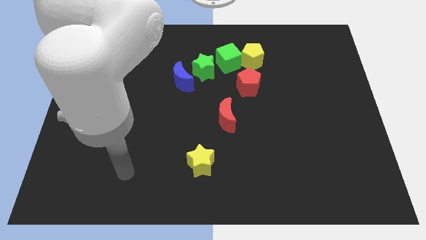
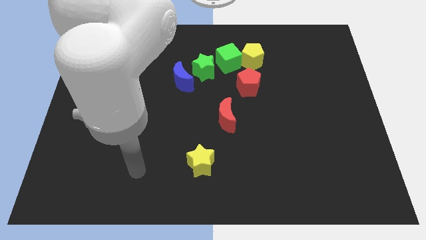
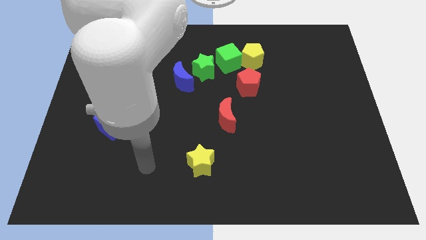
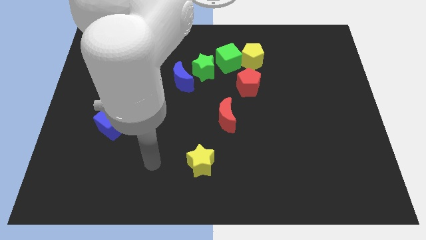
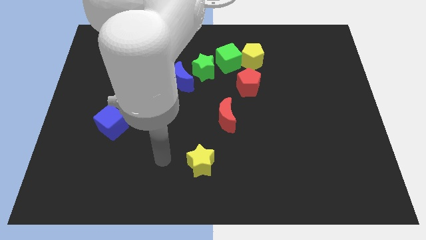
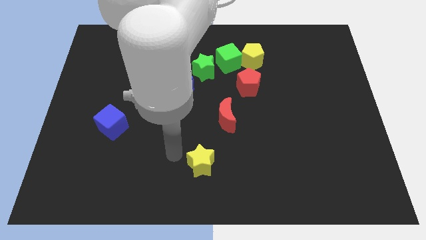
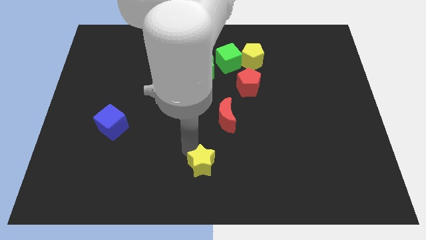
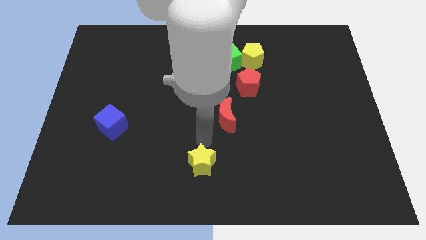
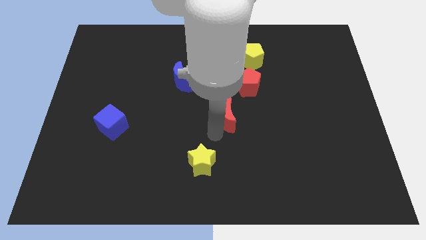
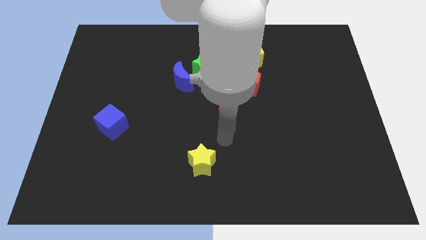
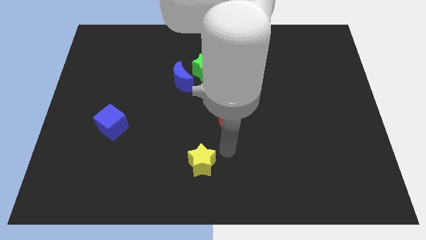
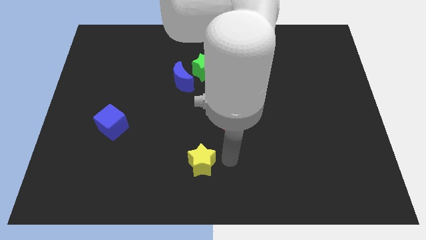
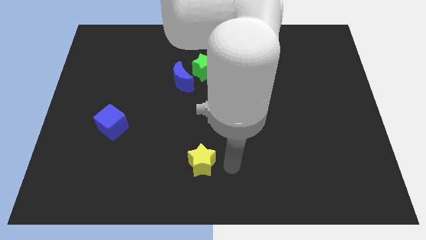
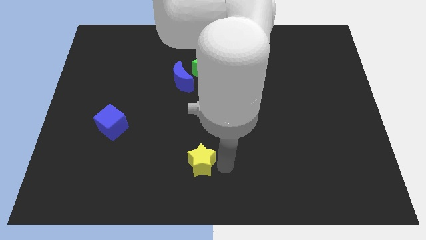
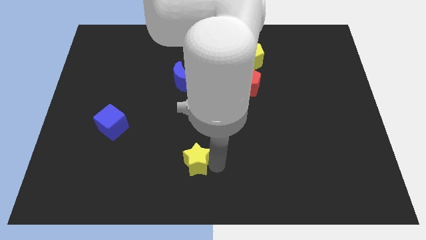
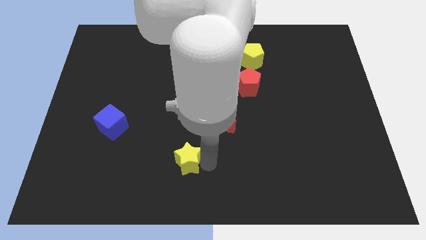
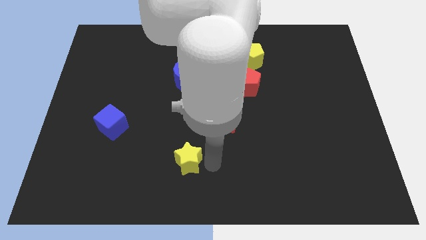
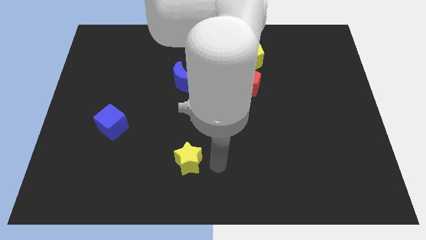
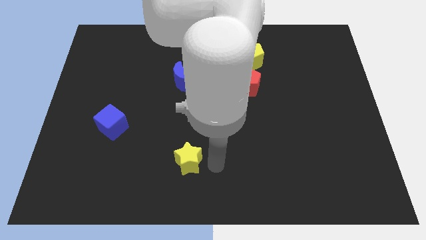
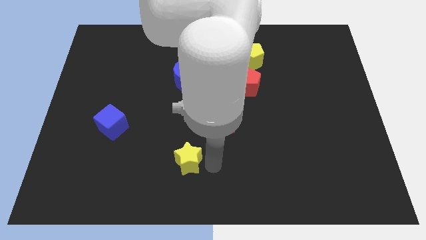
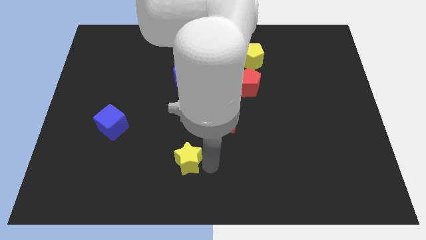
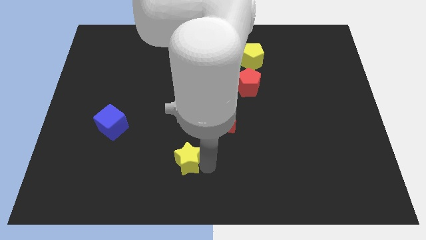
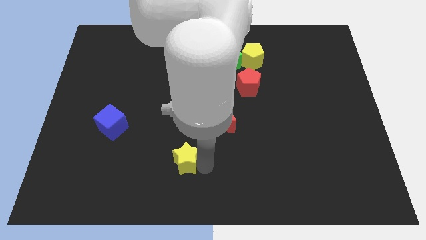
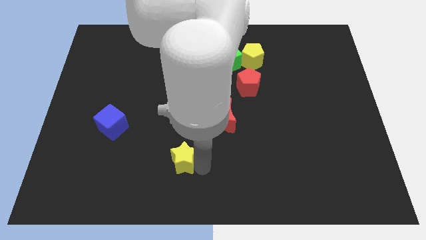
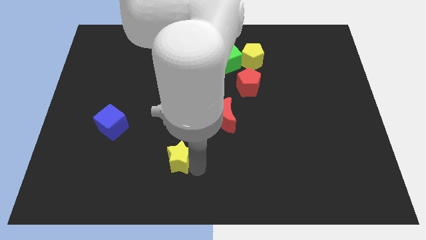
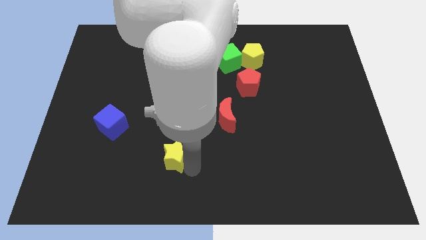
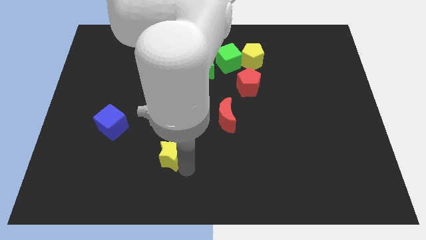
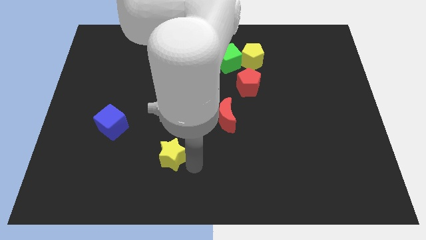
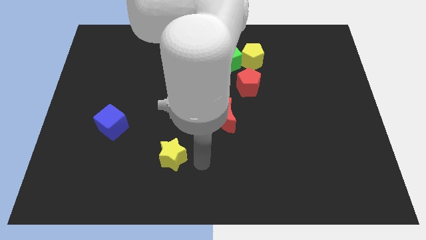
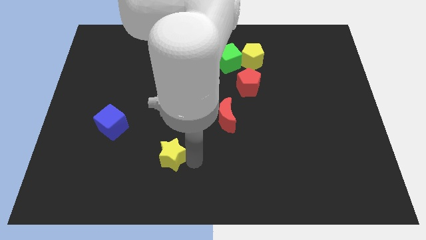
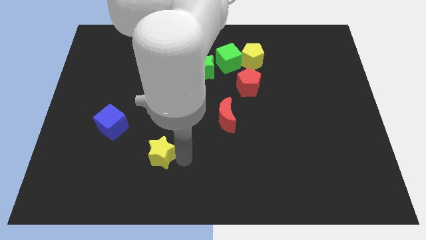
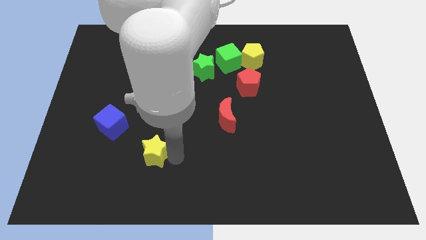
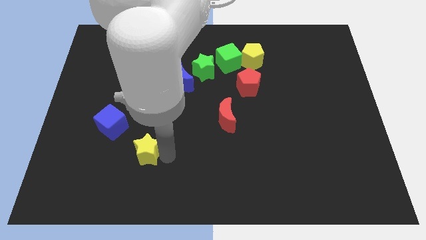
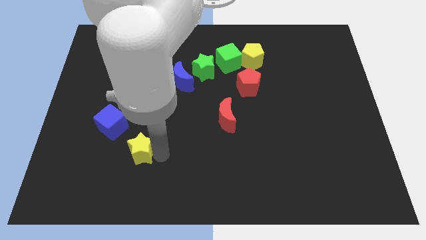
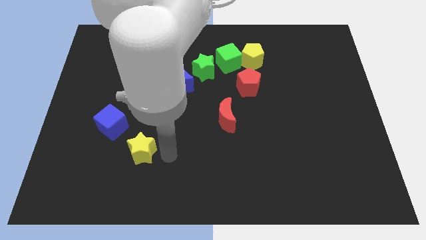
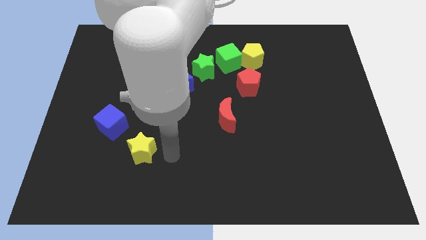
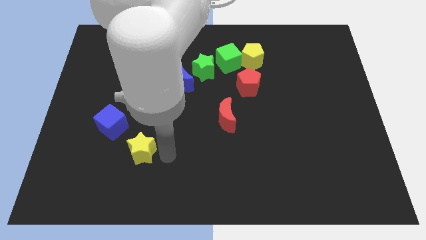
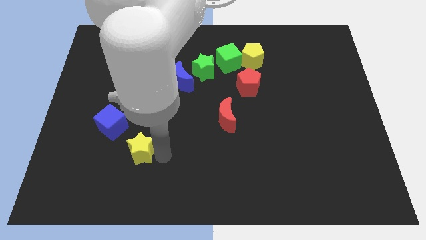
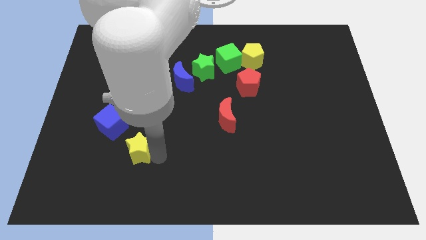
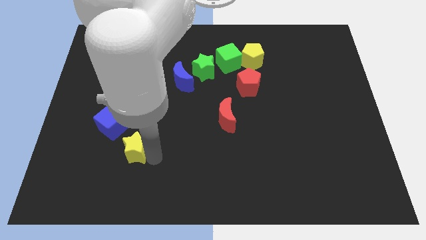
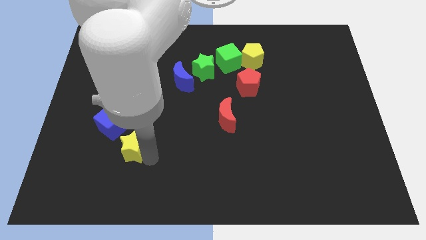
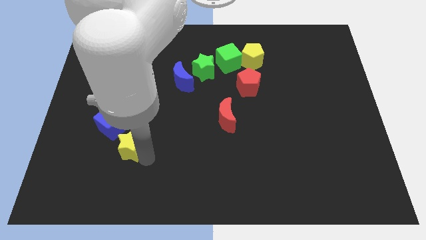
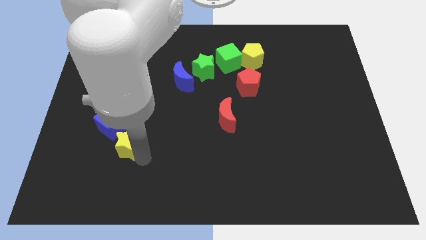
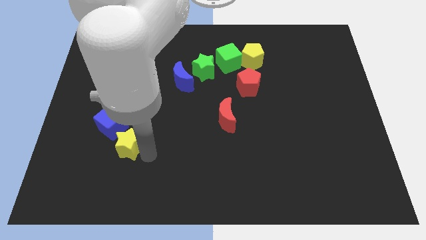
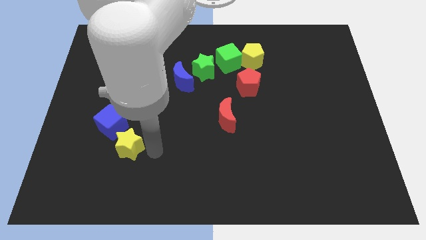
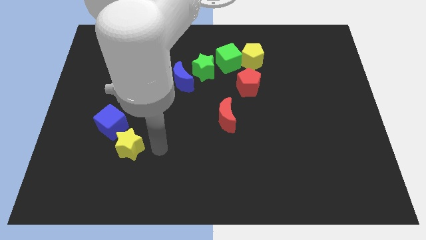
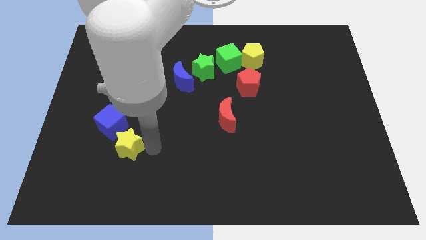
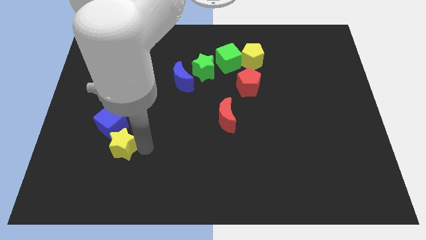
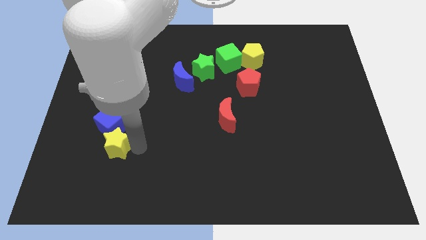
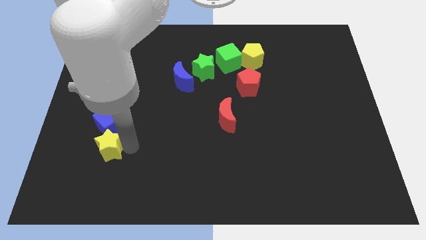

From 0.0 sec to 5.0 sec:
put the yellow star diagonally down and to the left of the blue cube

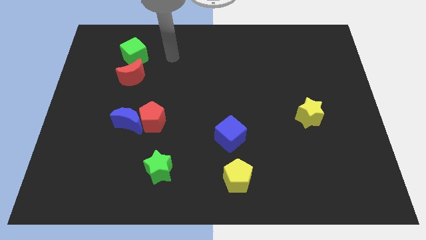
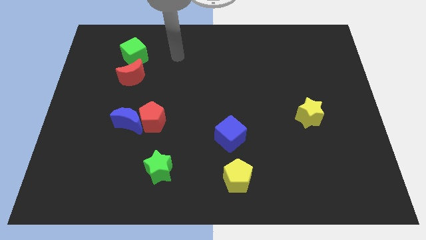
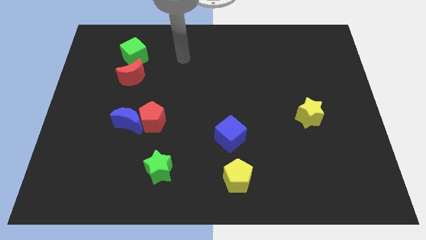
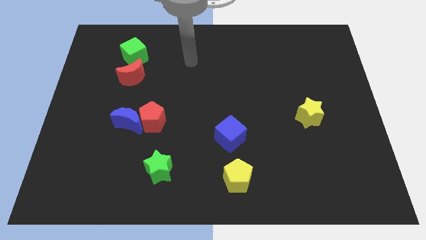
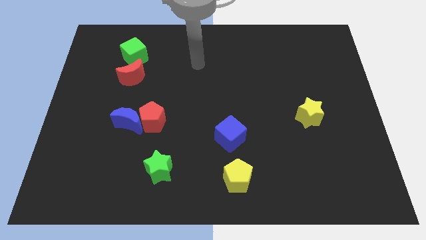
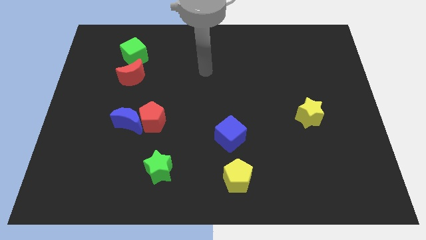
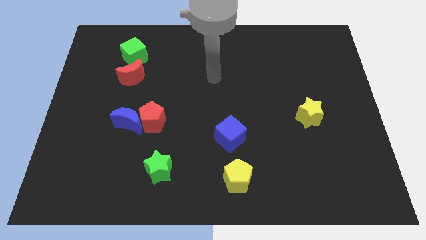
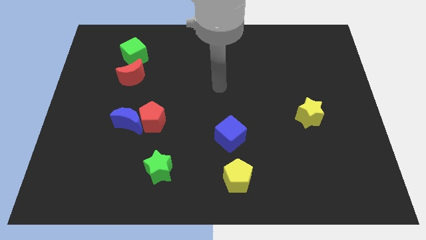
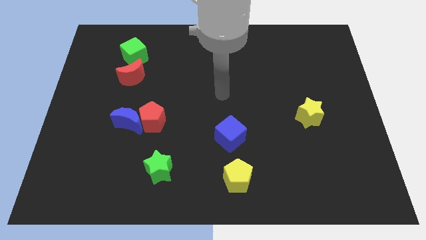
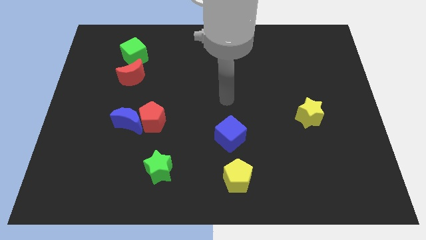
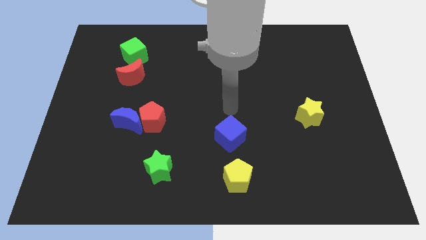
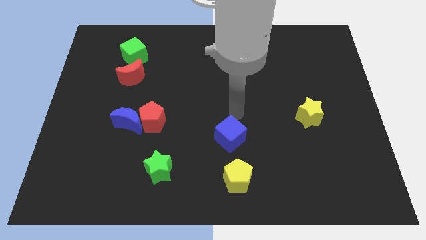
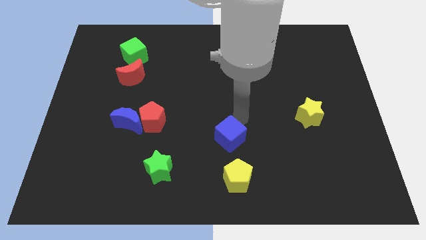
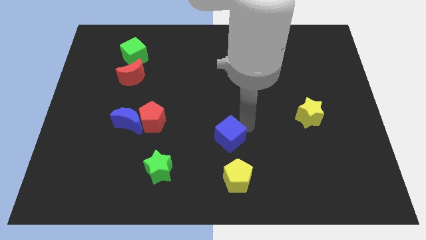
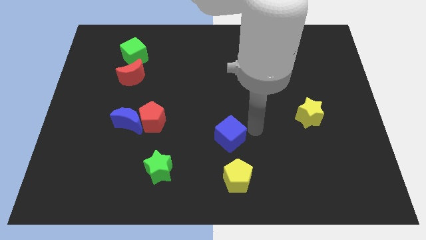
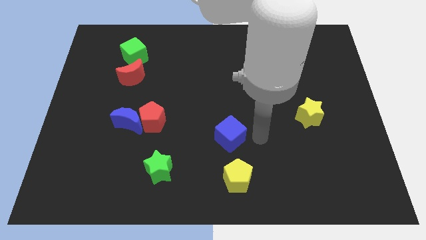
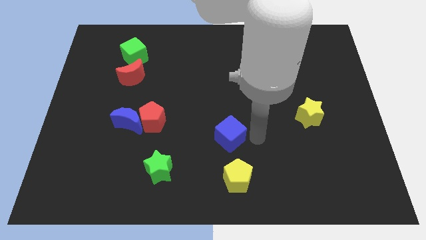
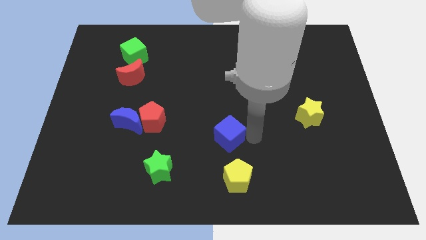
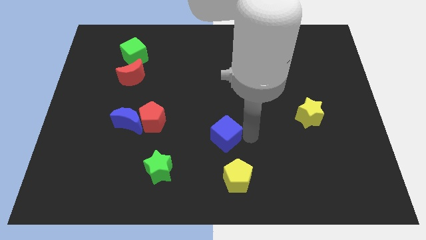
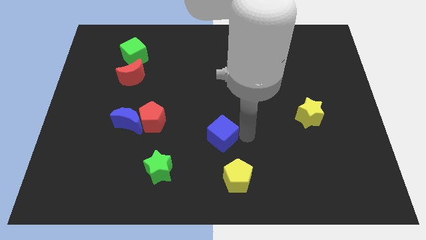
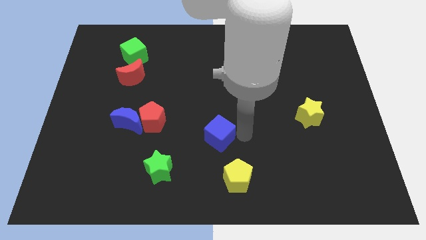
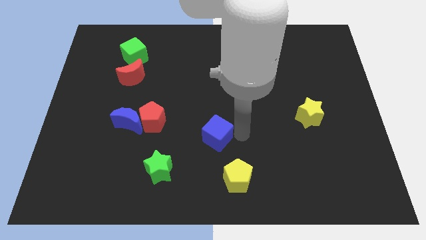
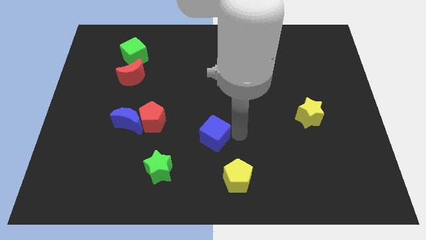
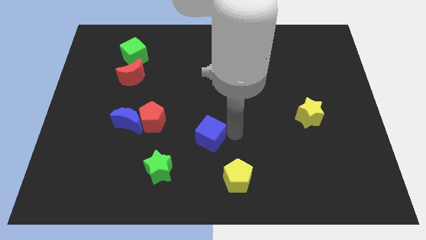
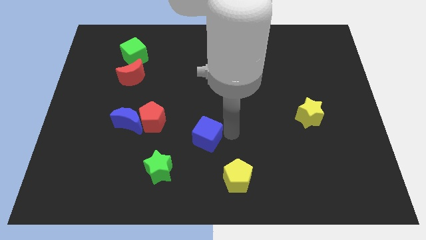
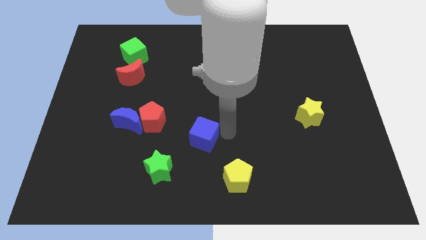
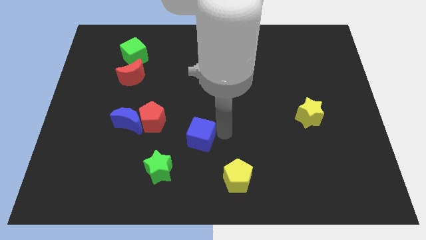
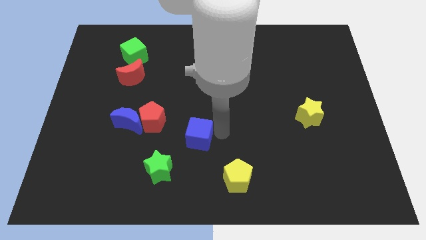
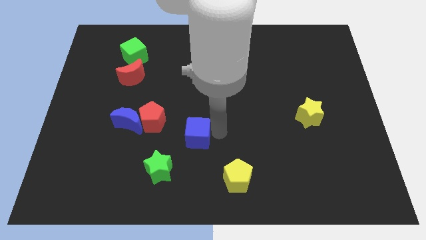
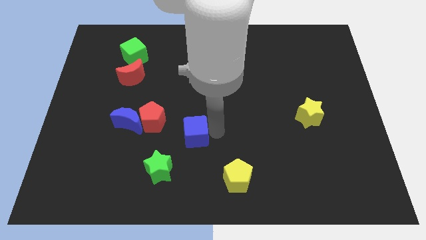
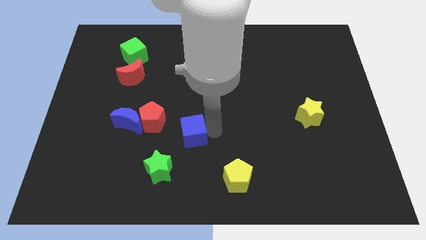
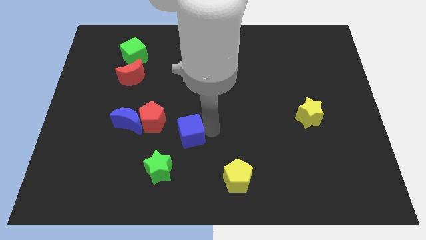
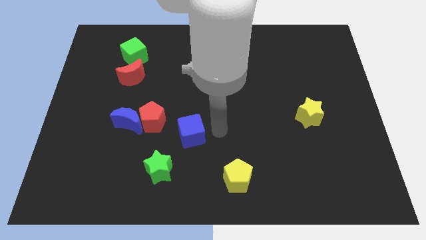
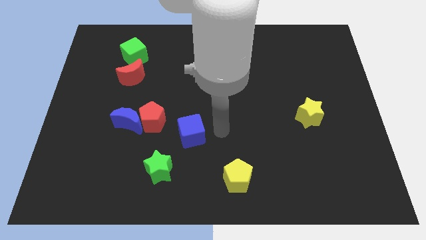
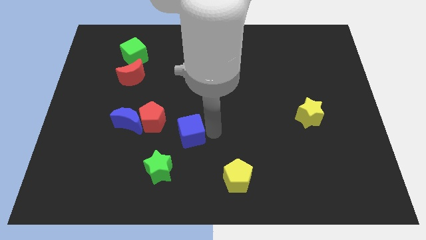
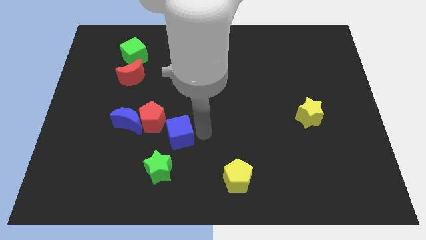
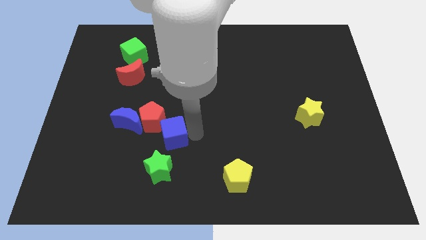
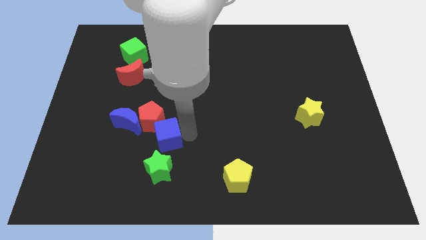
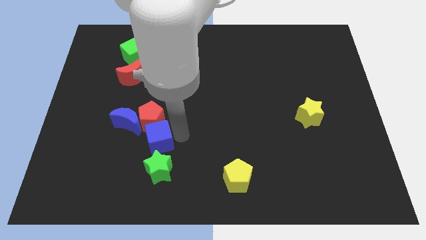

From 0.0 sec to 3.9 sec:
move the blue cube diagonally up and to the left of the green star
